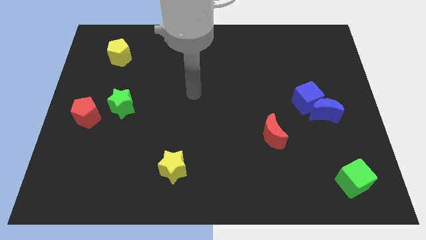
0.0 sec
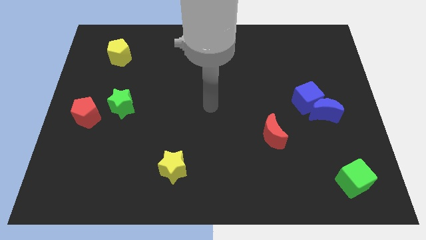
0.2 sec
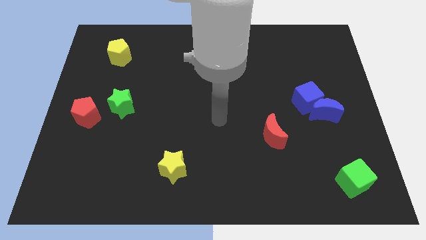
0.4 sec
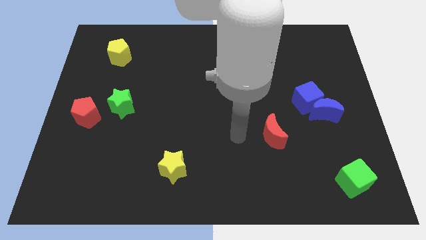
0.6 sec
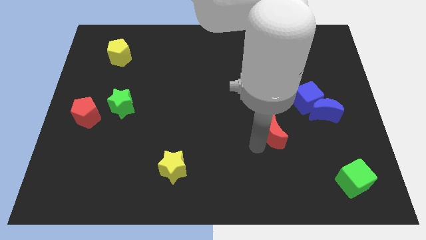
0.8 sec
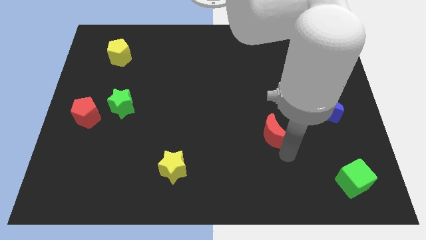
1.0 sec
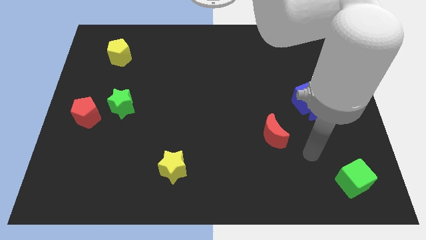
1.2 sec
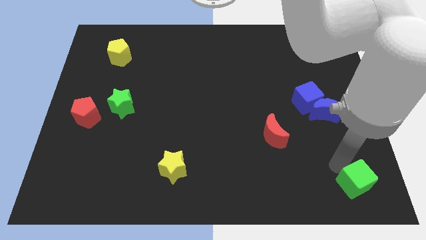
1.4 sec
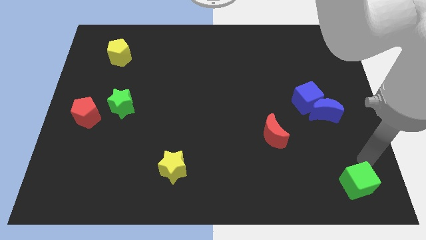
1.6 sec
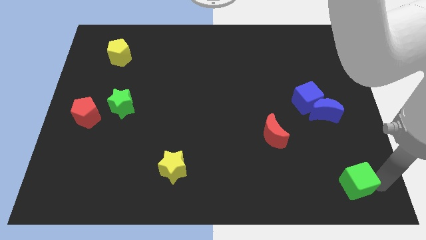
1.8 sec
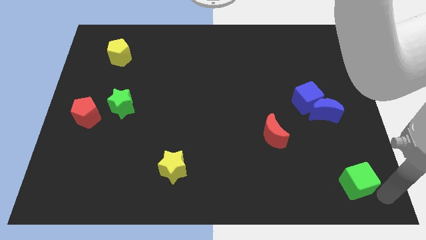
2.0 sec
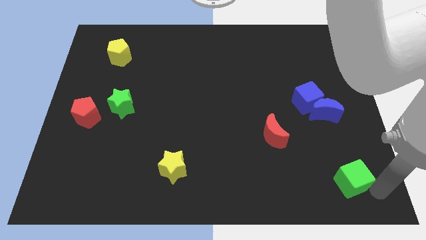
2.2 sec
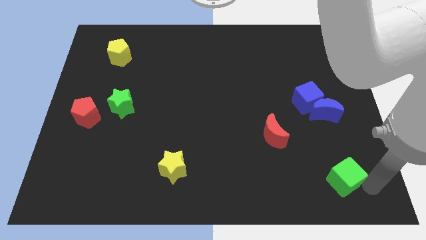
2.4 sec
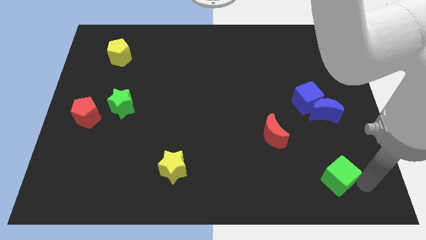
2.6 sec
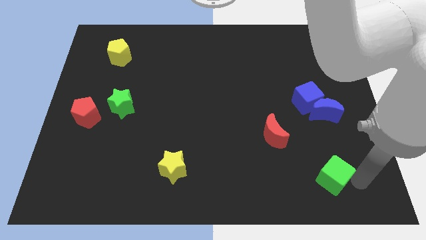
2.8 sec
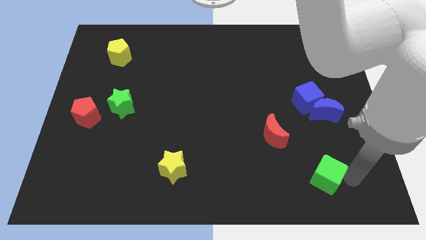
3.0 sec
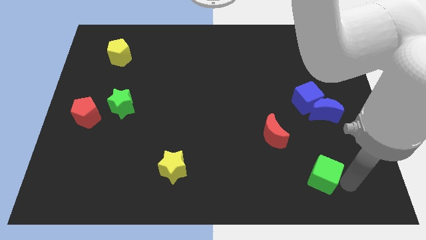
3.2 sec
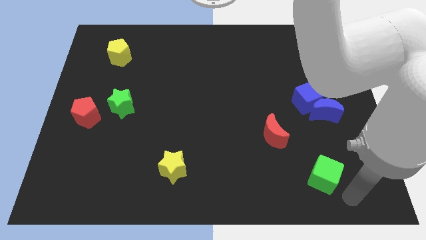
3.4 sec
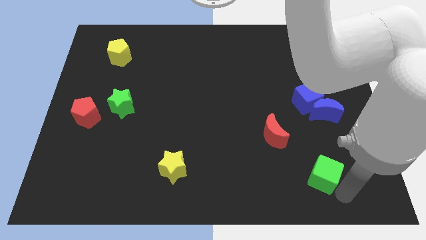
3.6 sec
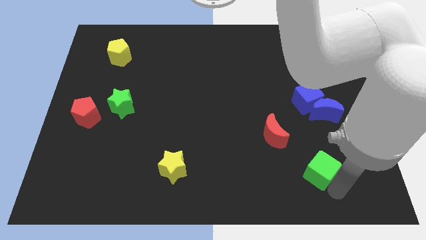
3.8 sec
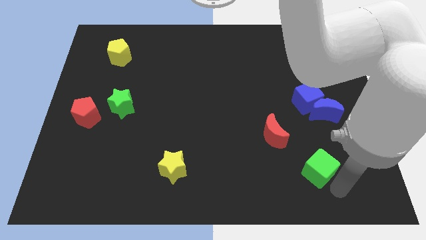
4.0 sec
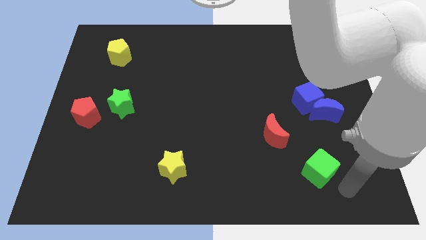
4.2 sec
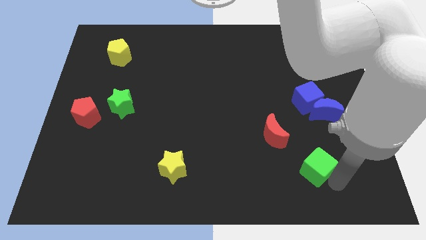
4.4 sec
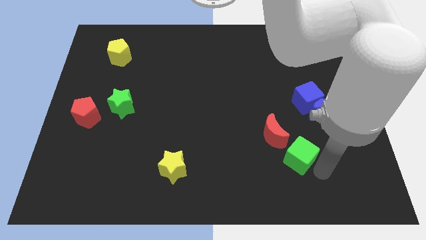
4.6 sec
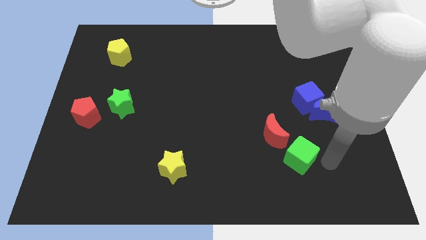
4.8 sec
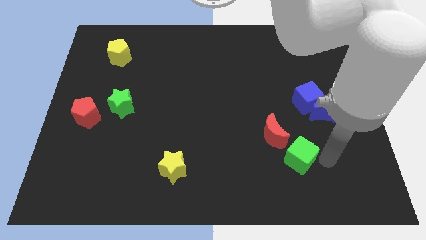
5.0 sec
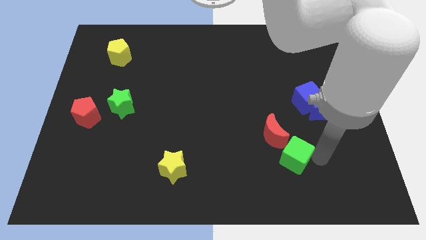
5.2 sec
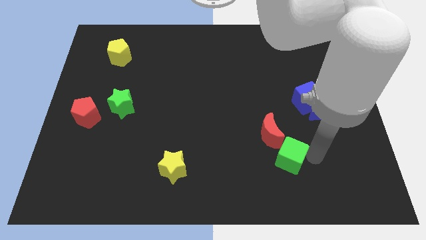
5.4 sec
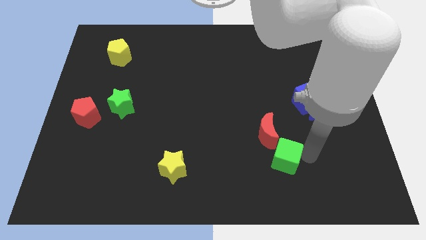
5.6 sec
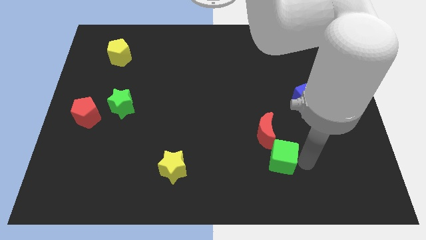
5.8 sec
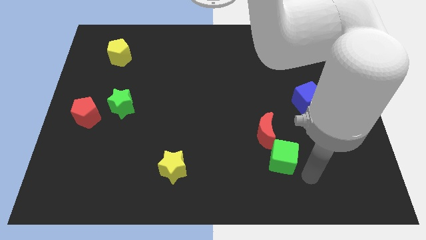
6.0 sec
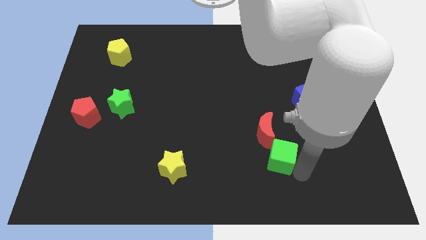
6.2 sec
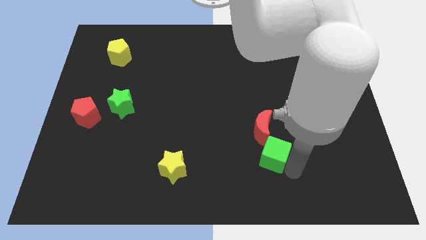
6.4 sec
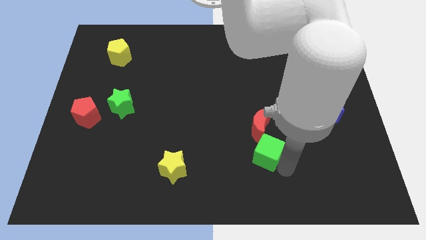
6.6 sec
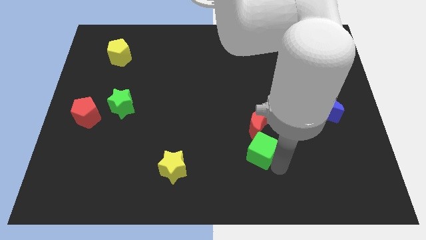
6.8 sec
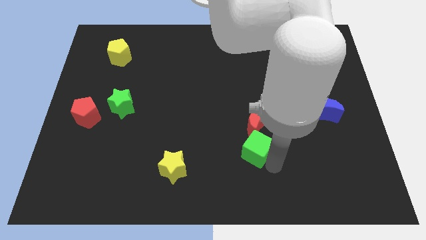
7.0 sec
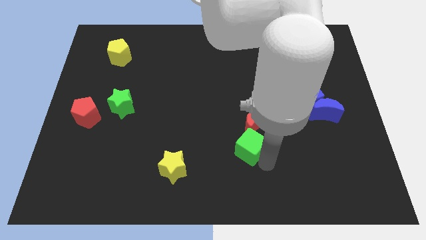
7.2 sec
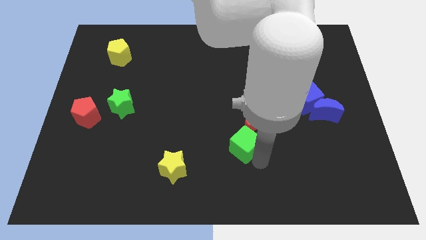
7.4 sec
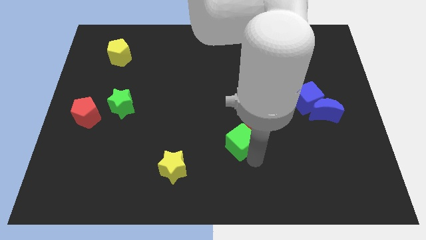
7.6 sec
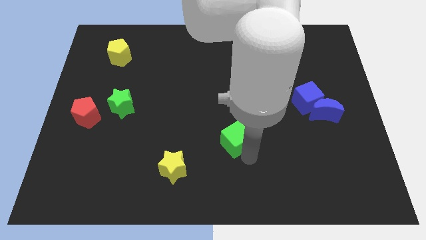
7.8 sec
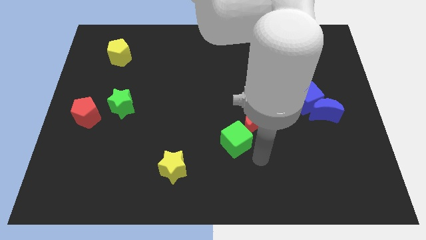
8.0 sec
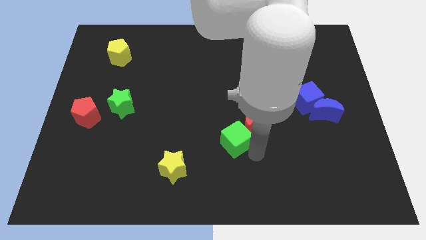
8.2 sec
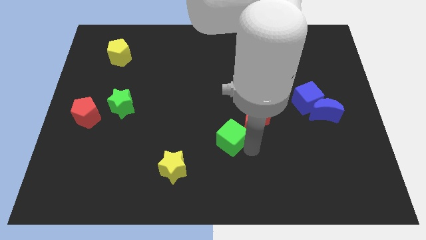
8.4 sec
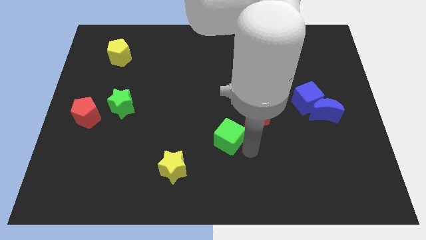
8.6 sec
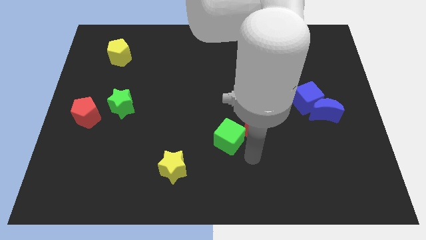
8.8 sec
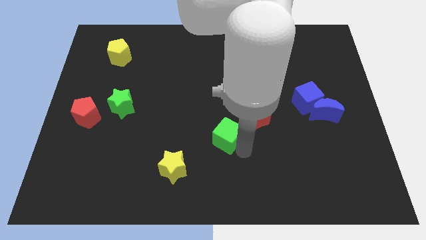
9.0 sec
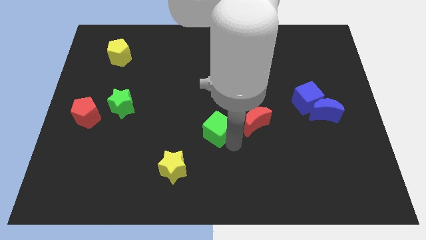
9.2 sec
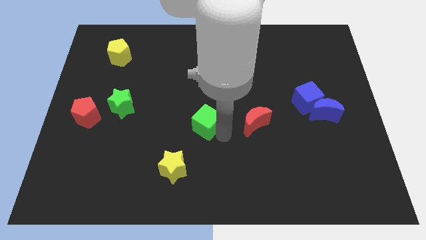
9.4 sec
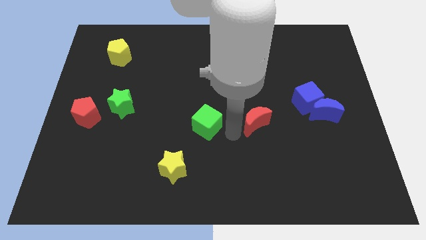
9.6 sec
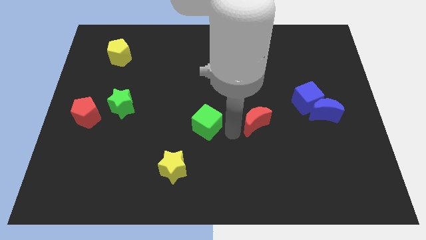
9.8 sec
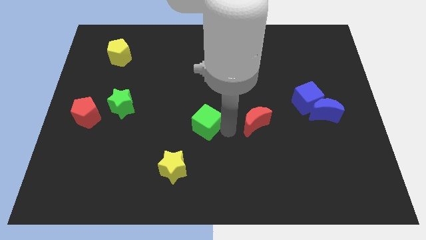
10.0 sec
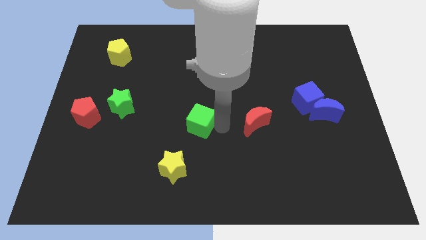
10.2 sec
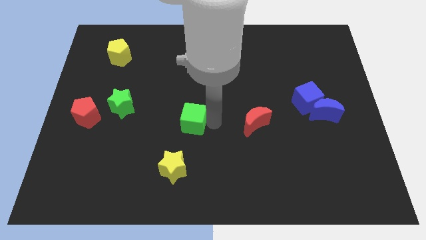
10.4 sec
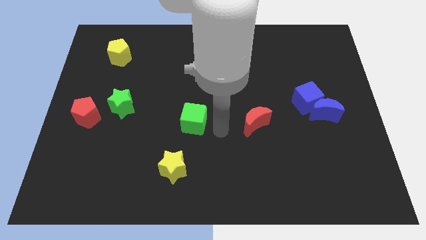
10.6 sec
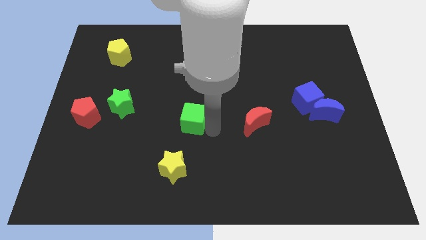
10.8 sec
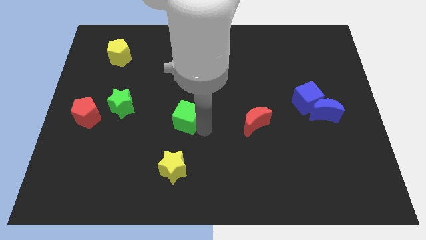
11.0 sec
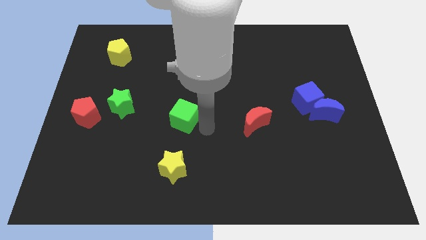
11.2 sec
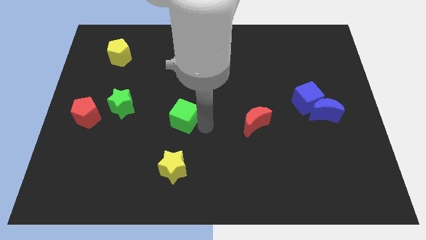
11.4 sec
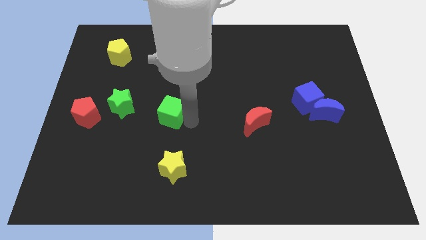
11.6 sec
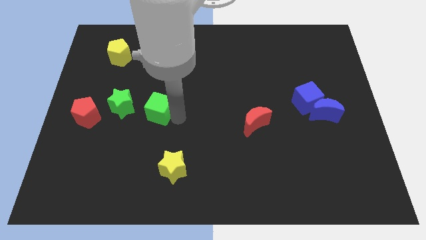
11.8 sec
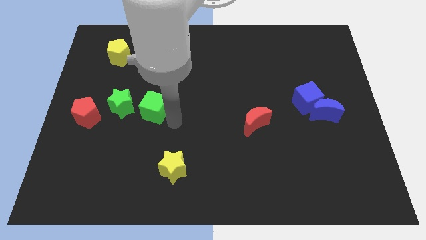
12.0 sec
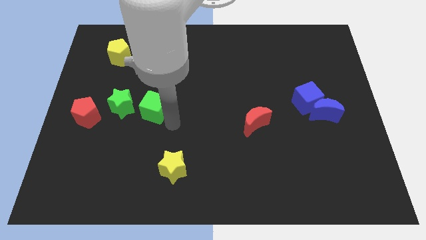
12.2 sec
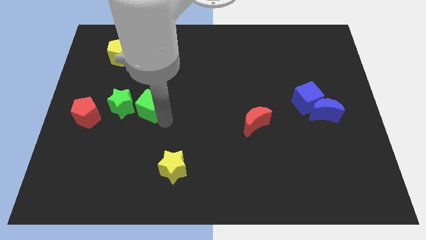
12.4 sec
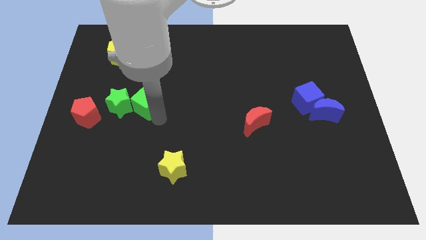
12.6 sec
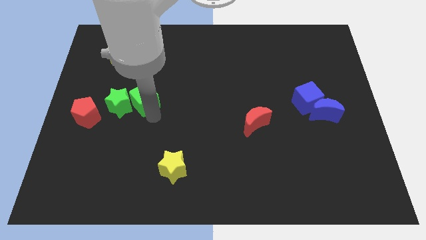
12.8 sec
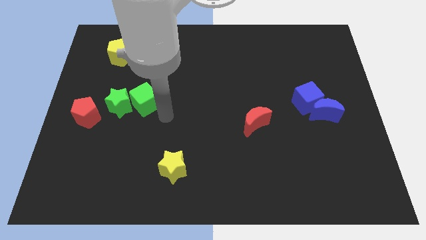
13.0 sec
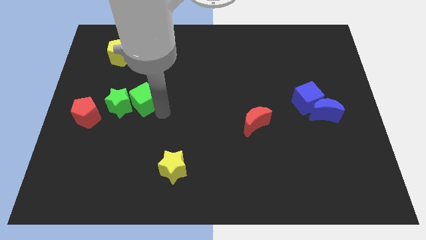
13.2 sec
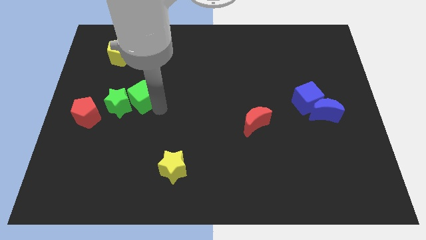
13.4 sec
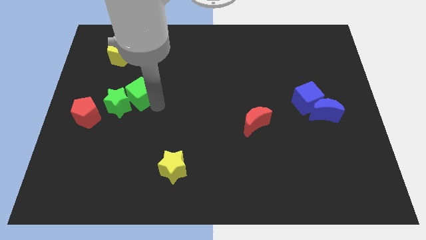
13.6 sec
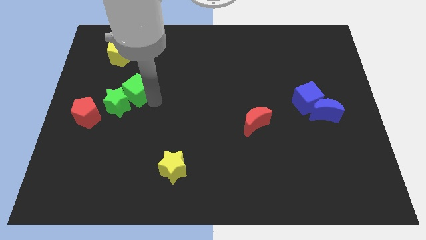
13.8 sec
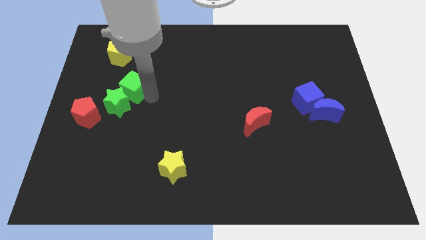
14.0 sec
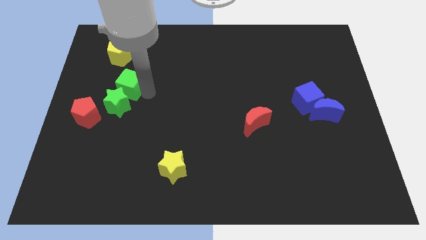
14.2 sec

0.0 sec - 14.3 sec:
slide the green cube to the bottom of the yellow pentagon
